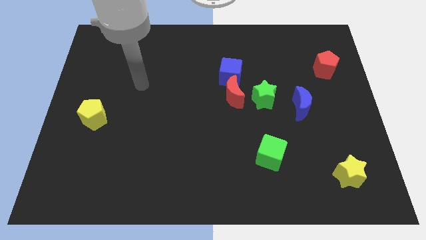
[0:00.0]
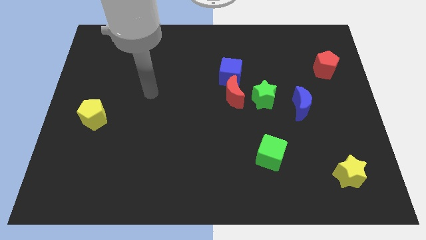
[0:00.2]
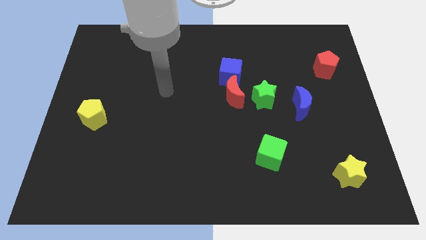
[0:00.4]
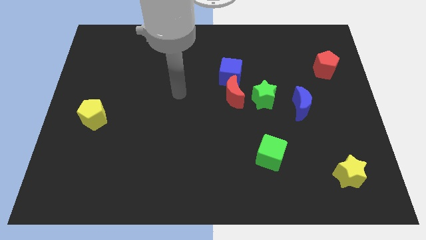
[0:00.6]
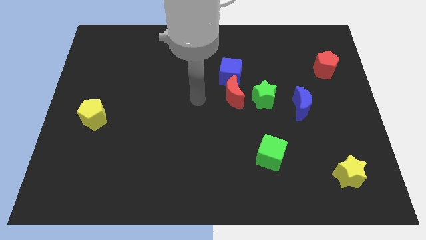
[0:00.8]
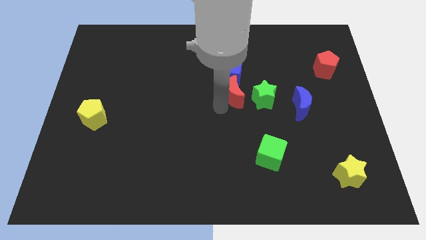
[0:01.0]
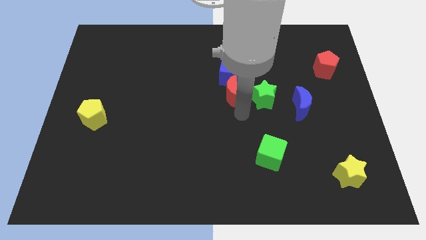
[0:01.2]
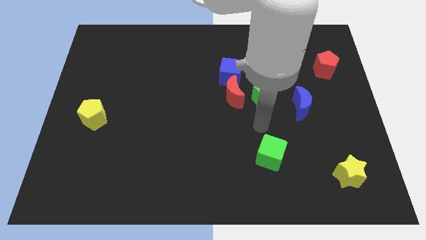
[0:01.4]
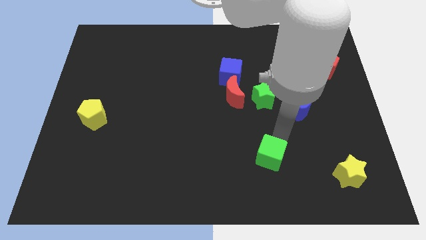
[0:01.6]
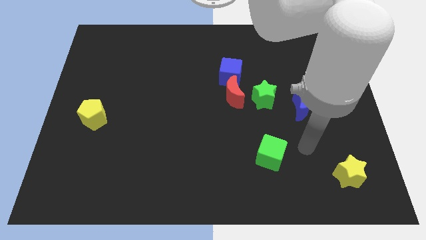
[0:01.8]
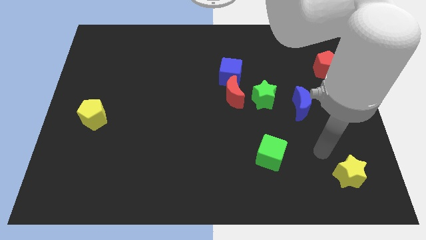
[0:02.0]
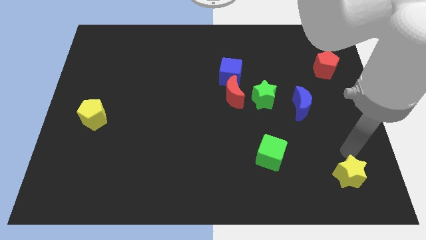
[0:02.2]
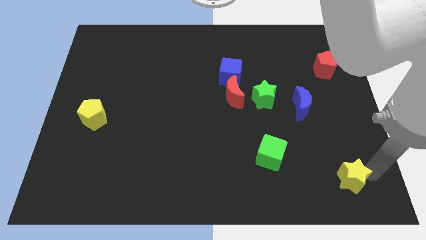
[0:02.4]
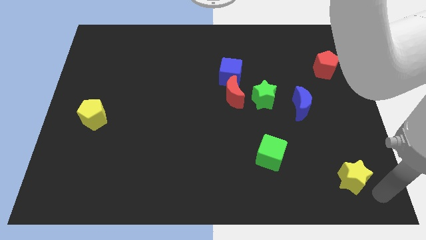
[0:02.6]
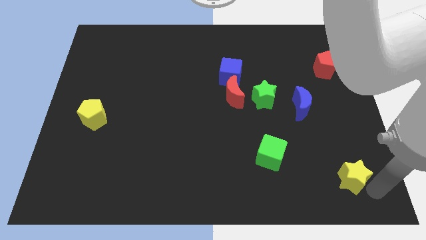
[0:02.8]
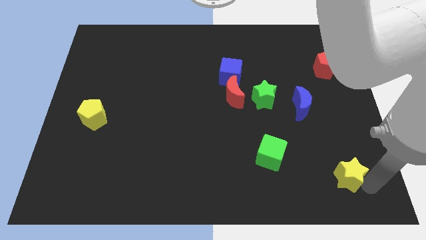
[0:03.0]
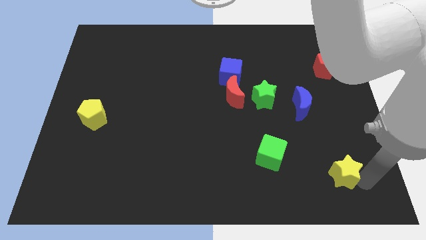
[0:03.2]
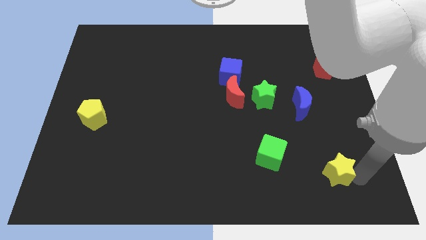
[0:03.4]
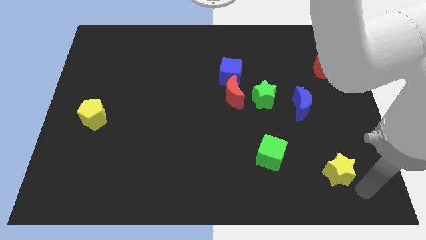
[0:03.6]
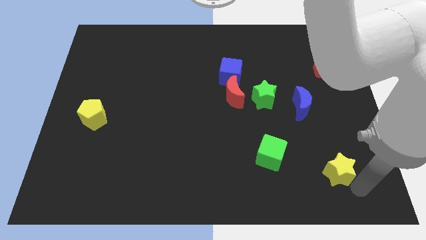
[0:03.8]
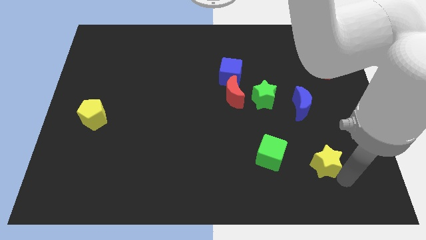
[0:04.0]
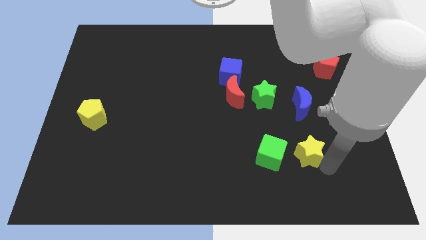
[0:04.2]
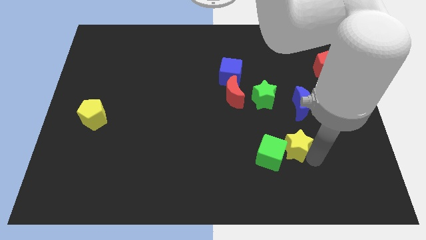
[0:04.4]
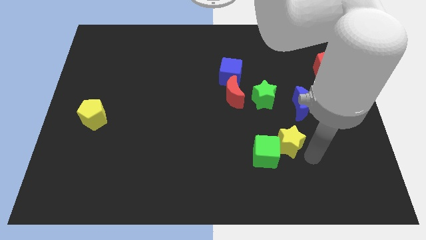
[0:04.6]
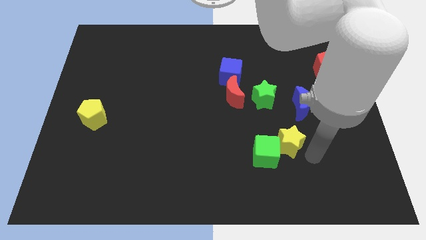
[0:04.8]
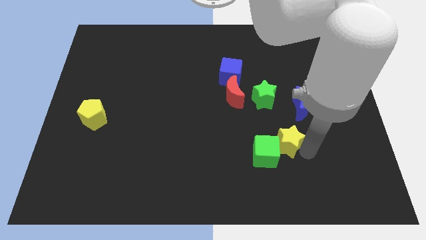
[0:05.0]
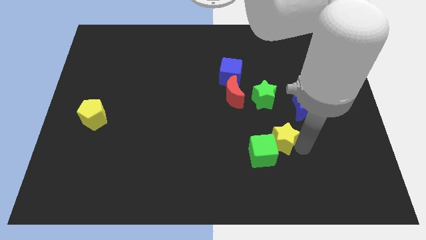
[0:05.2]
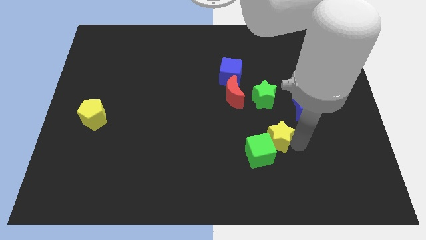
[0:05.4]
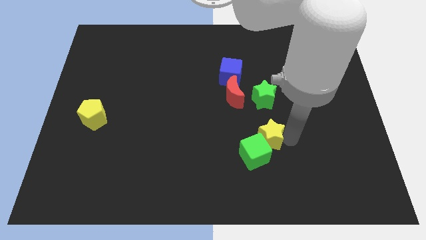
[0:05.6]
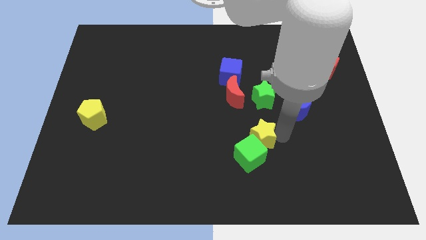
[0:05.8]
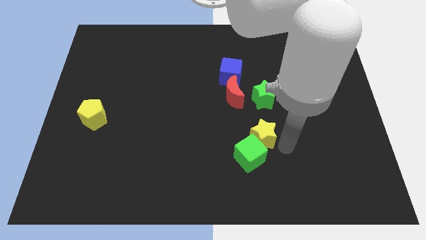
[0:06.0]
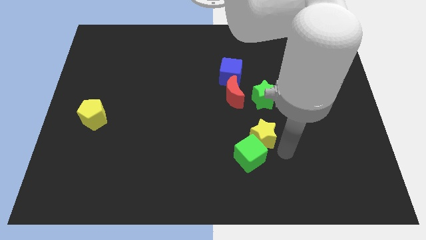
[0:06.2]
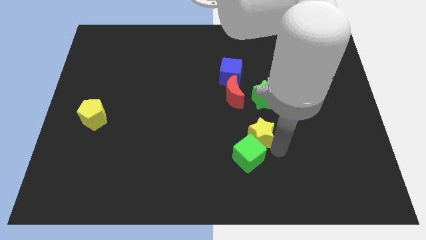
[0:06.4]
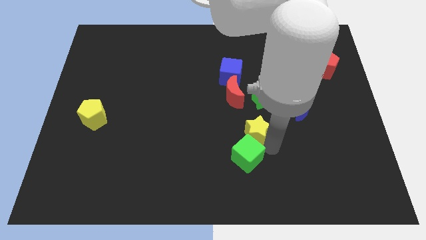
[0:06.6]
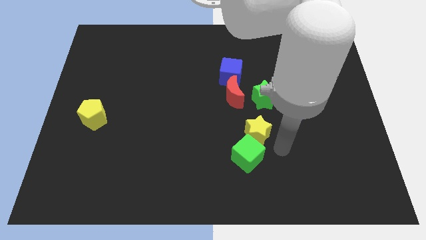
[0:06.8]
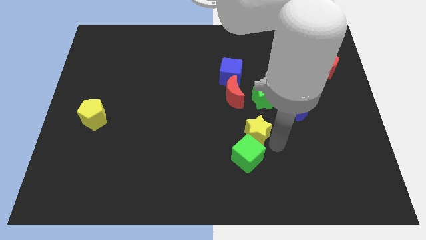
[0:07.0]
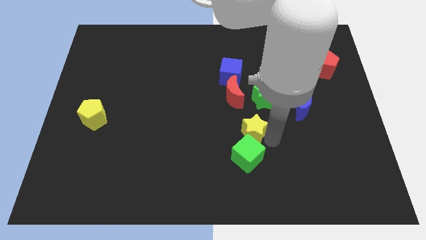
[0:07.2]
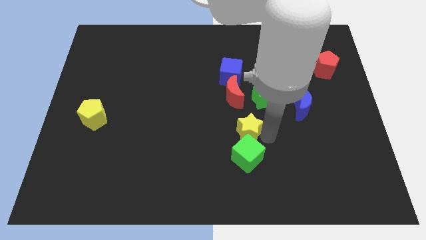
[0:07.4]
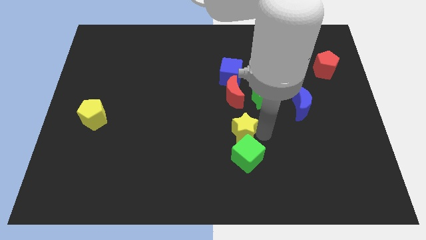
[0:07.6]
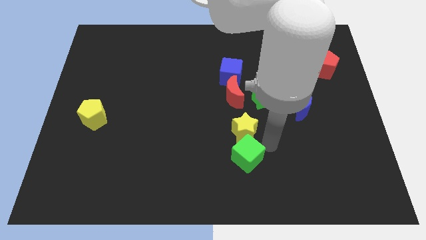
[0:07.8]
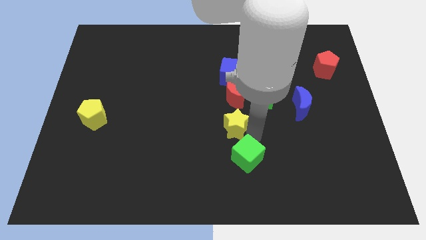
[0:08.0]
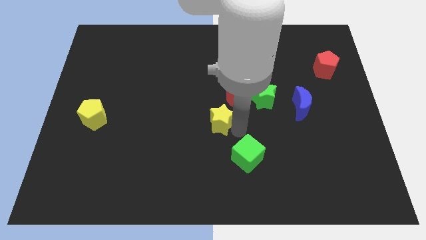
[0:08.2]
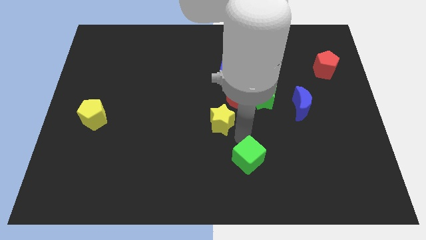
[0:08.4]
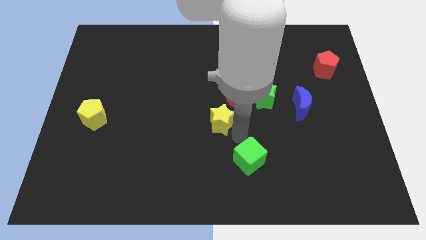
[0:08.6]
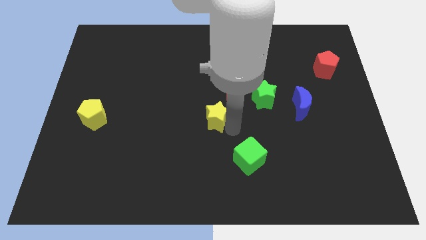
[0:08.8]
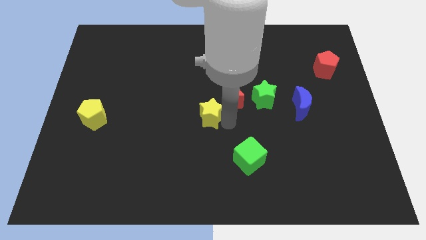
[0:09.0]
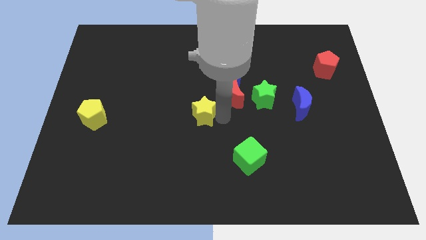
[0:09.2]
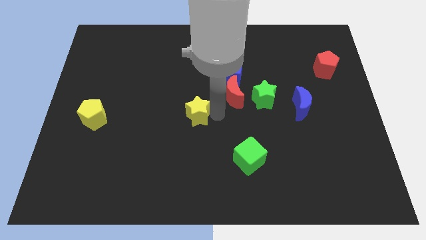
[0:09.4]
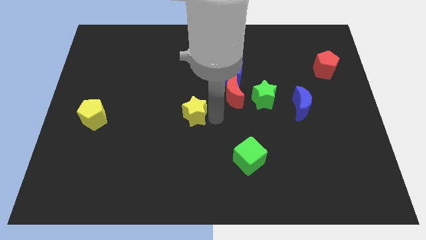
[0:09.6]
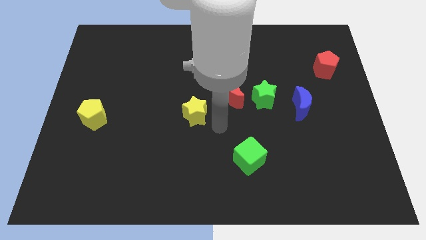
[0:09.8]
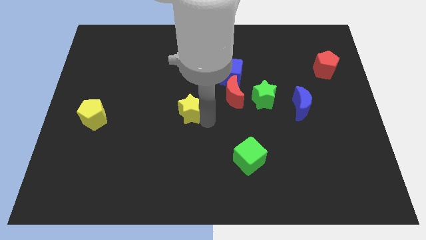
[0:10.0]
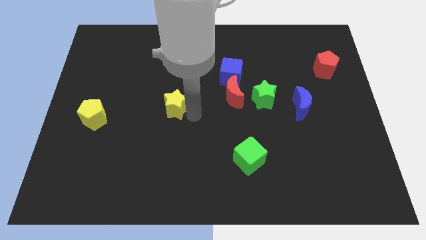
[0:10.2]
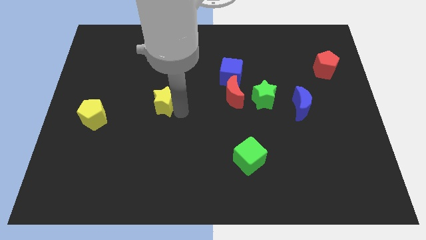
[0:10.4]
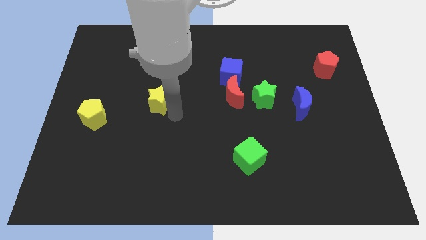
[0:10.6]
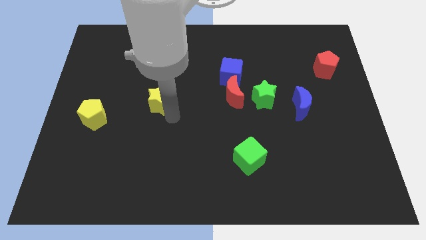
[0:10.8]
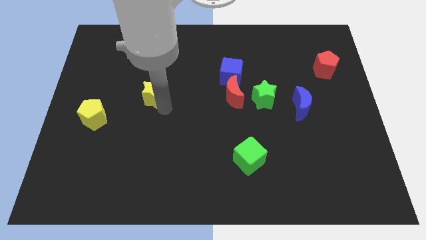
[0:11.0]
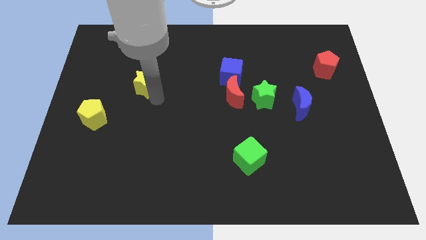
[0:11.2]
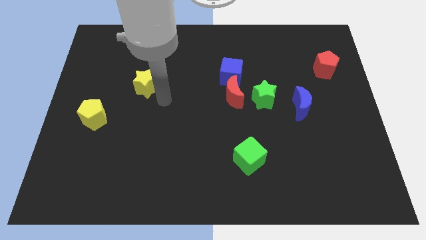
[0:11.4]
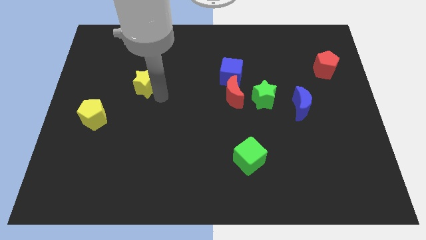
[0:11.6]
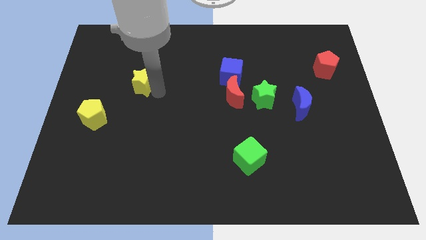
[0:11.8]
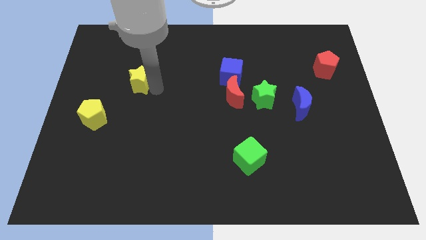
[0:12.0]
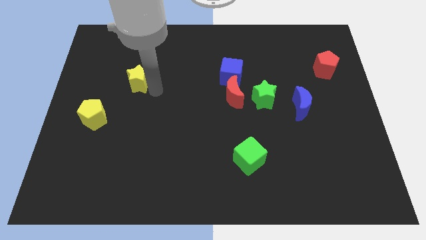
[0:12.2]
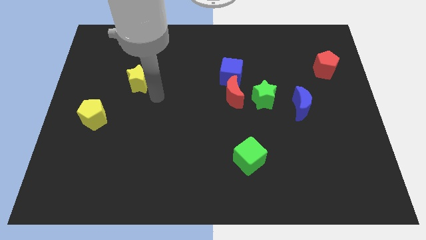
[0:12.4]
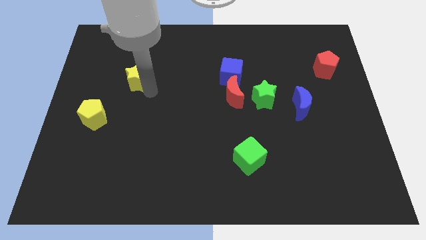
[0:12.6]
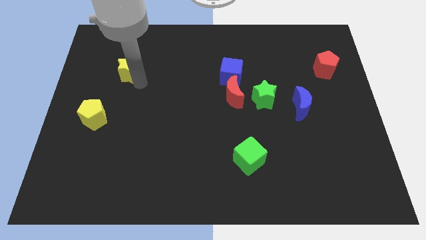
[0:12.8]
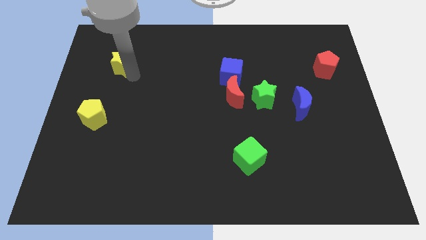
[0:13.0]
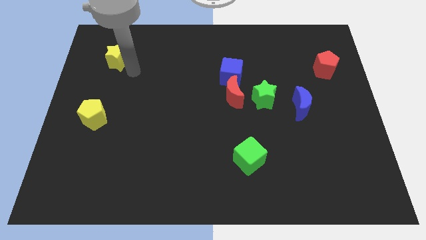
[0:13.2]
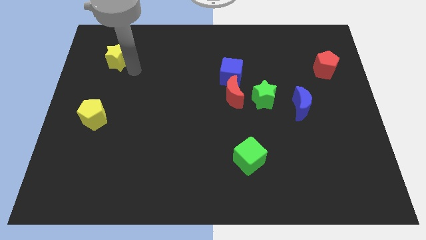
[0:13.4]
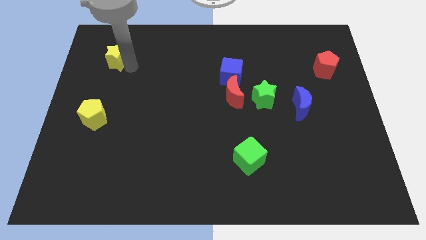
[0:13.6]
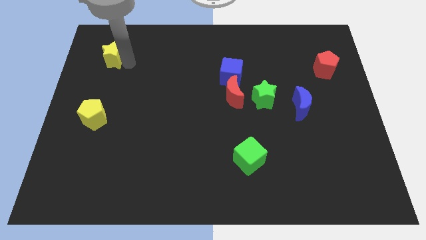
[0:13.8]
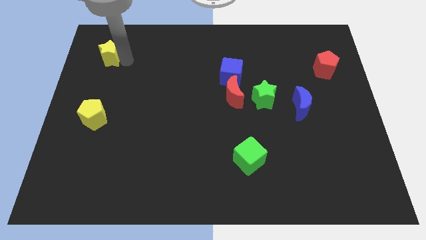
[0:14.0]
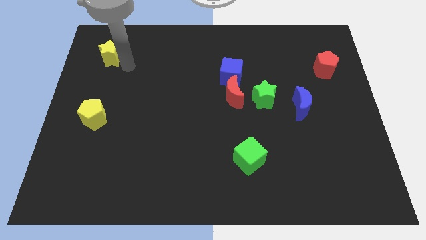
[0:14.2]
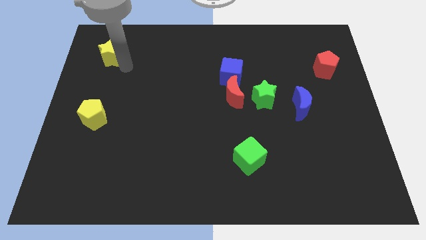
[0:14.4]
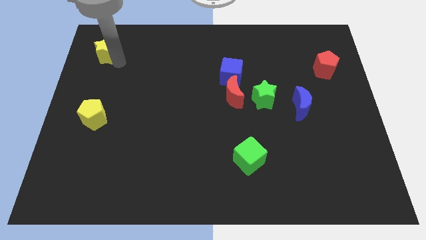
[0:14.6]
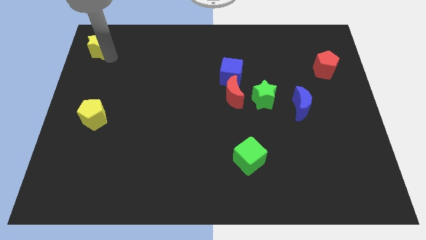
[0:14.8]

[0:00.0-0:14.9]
push the yellow star to the top left of the board
